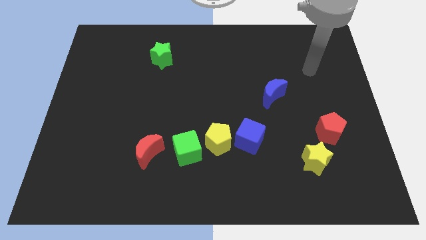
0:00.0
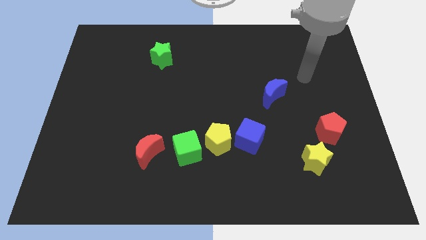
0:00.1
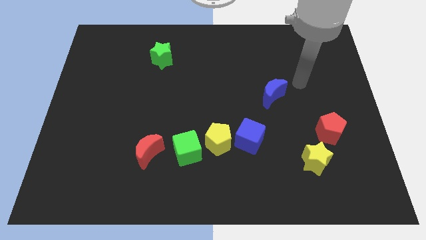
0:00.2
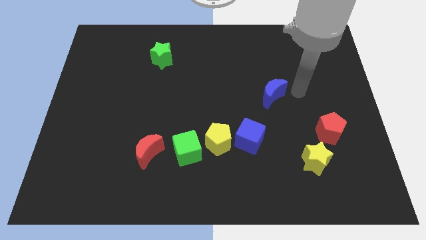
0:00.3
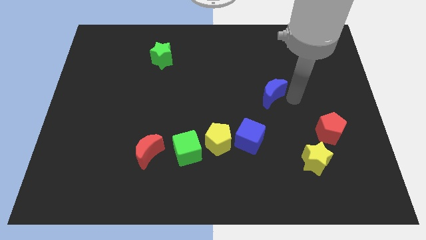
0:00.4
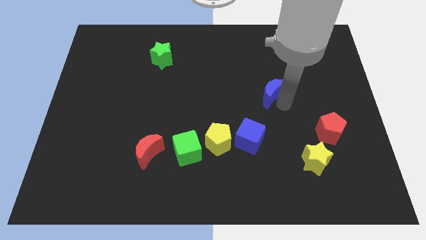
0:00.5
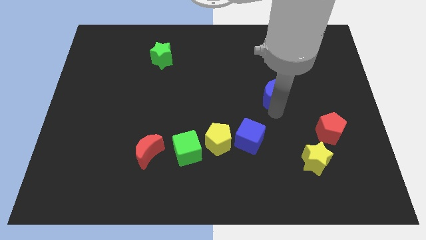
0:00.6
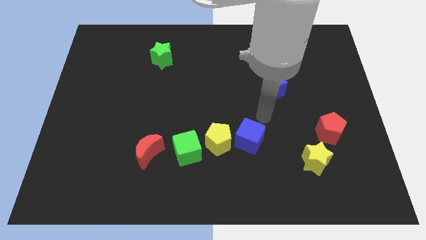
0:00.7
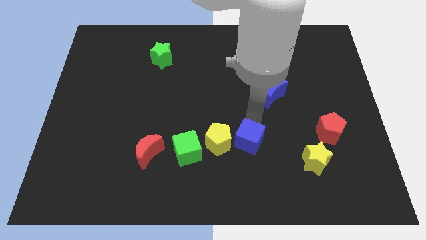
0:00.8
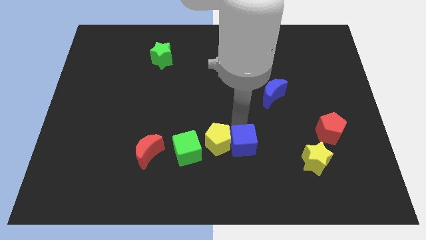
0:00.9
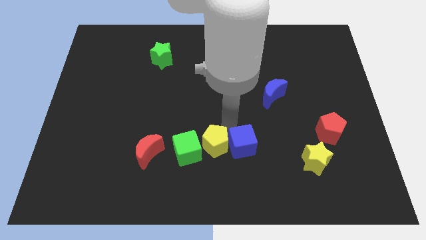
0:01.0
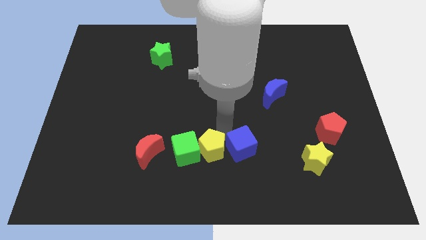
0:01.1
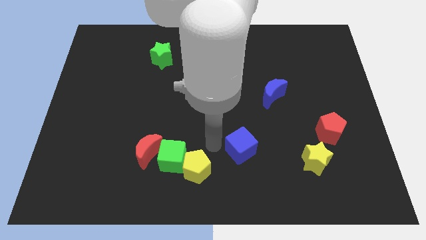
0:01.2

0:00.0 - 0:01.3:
separate the blue cube from the yellow pentagon

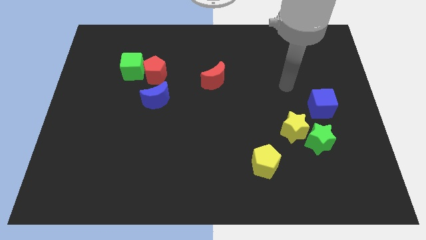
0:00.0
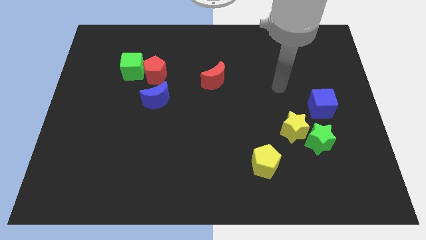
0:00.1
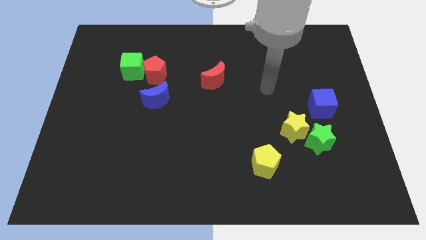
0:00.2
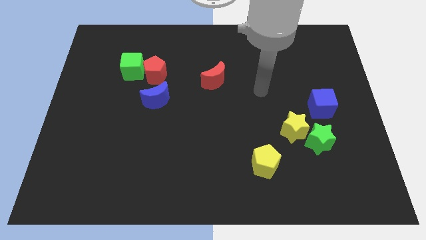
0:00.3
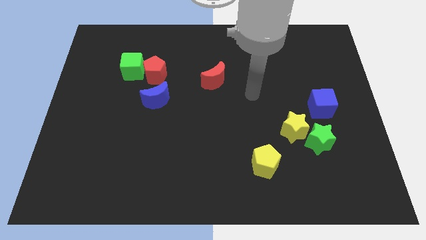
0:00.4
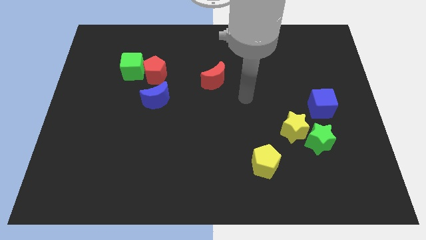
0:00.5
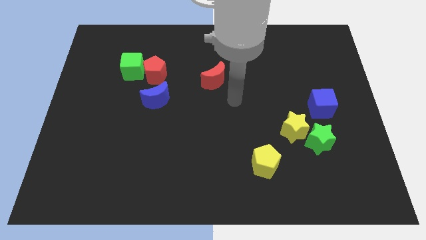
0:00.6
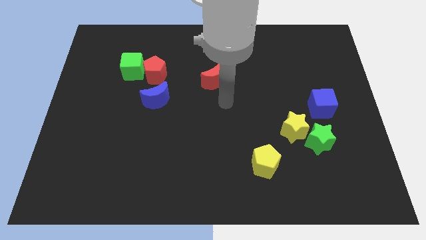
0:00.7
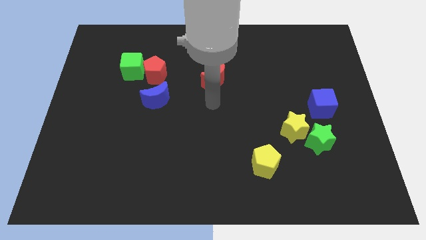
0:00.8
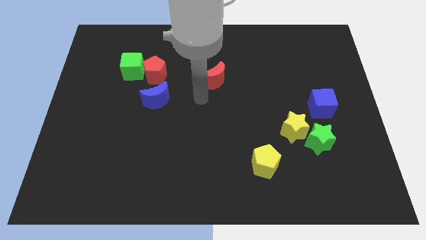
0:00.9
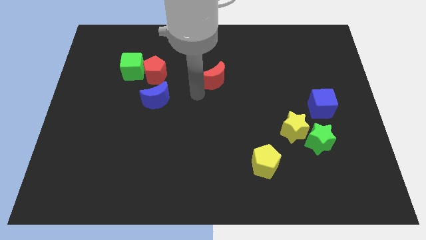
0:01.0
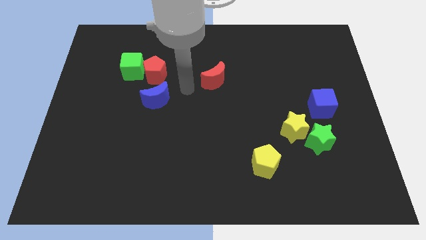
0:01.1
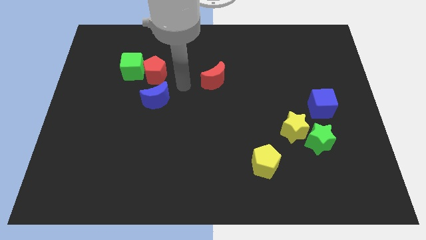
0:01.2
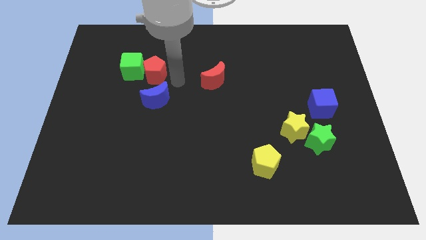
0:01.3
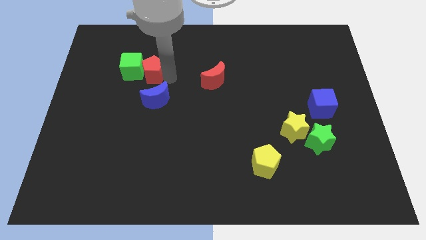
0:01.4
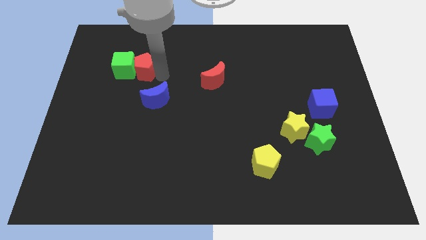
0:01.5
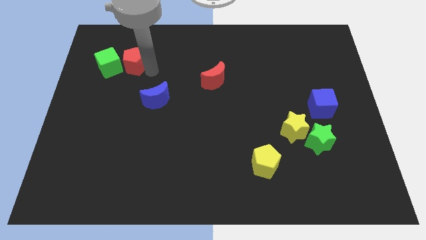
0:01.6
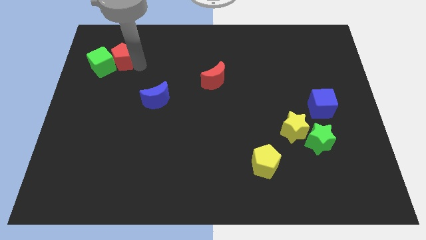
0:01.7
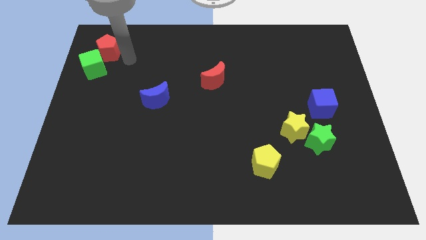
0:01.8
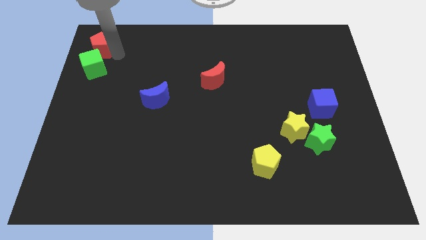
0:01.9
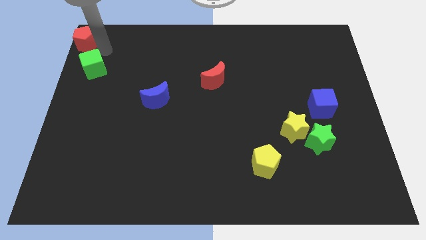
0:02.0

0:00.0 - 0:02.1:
separate the green cube from the red pentagon

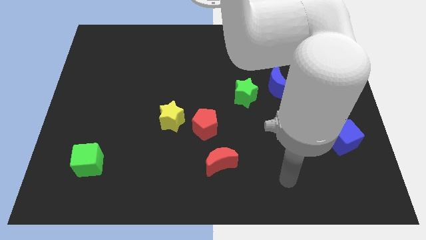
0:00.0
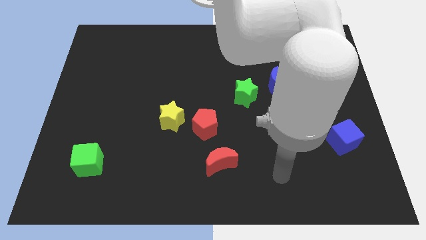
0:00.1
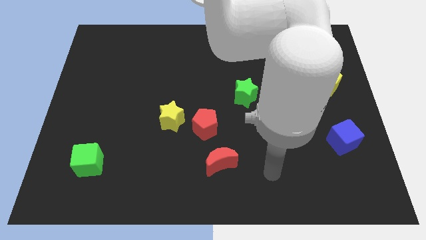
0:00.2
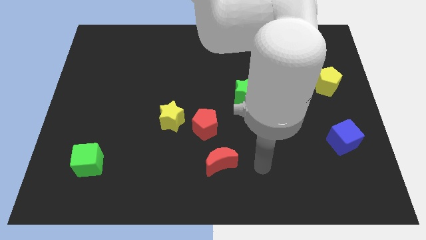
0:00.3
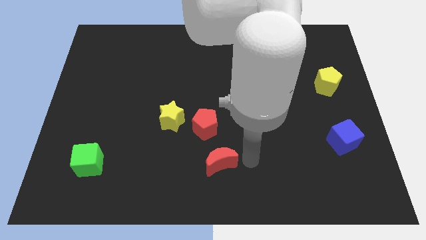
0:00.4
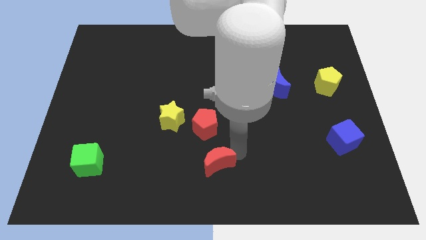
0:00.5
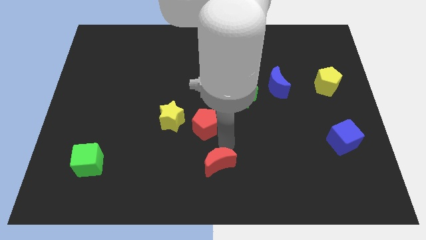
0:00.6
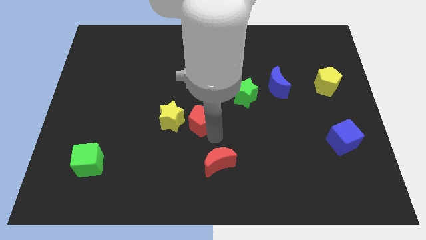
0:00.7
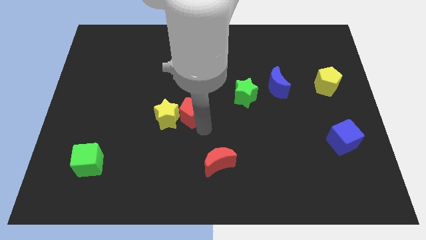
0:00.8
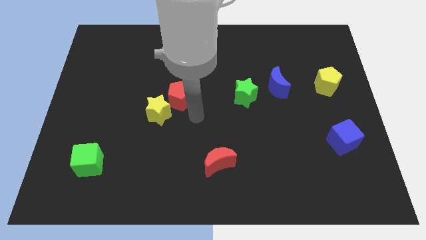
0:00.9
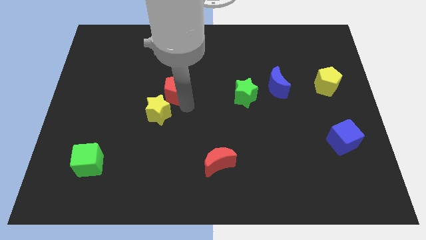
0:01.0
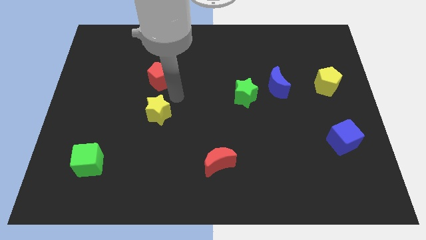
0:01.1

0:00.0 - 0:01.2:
separate the yellow star from the red pentagon

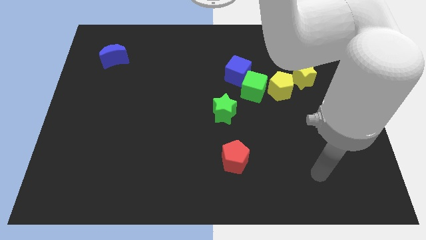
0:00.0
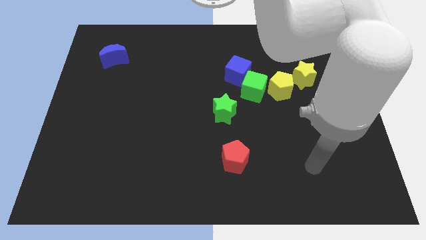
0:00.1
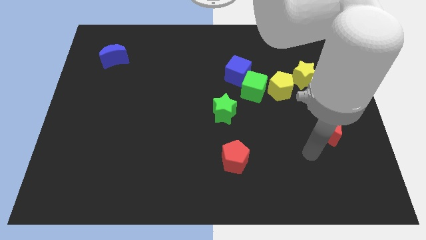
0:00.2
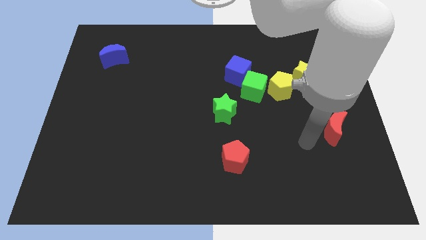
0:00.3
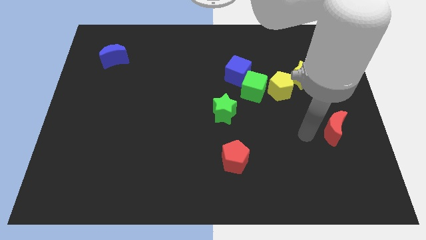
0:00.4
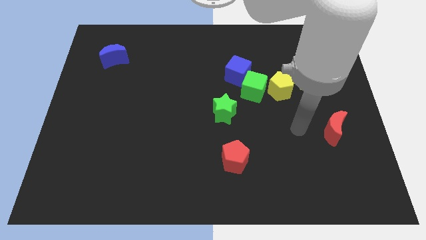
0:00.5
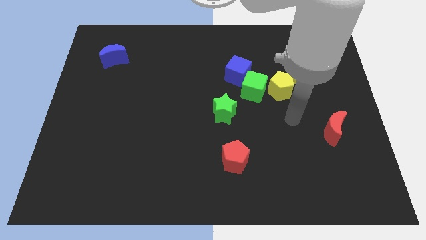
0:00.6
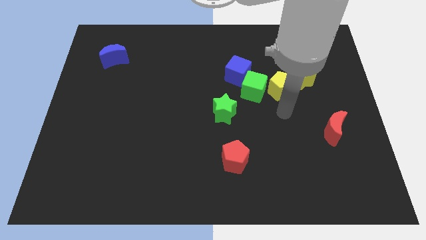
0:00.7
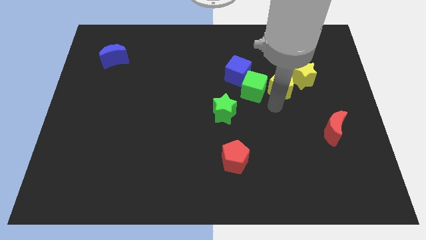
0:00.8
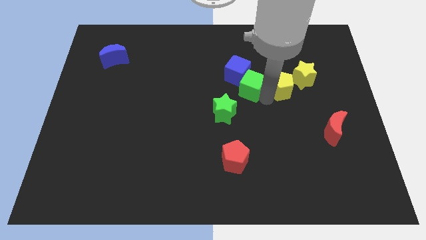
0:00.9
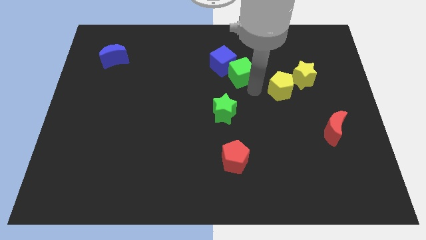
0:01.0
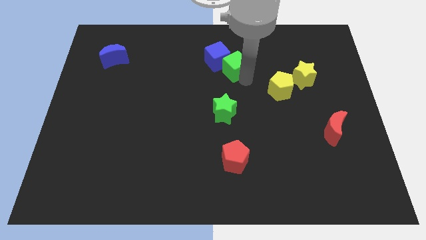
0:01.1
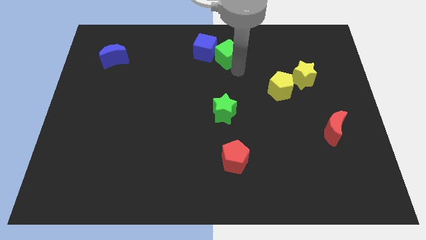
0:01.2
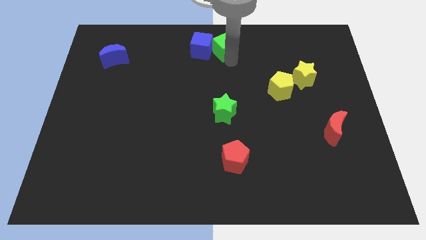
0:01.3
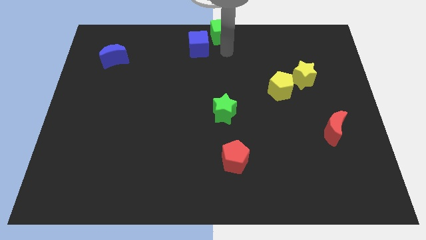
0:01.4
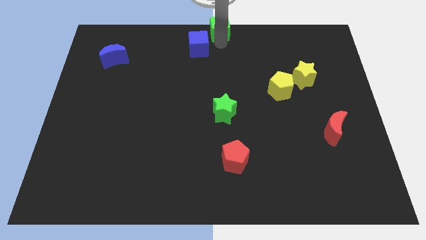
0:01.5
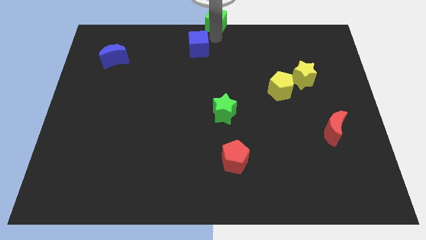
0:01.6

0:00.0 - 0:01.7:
separate the blue cube from the green cube

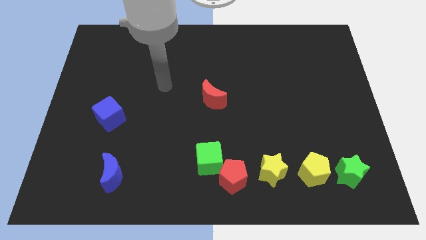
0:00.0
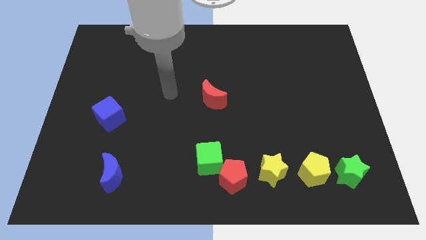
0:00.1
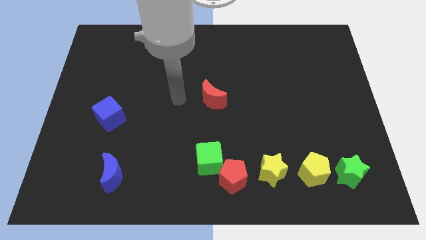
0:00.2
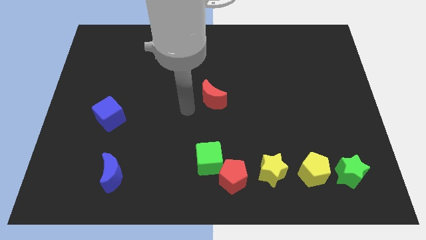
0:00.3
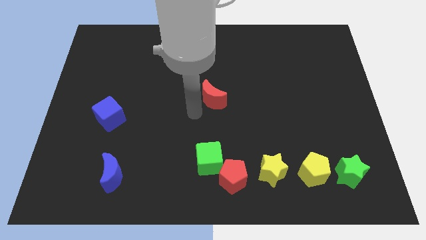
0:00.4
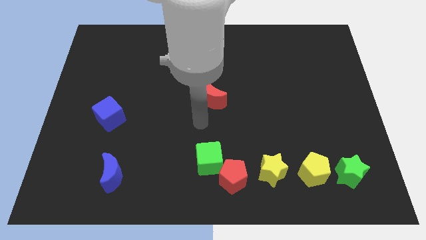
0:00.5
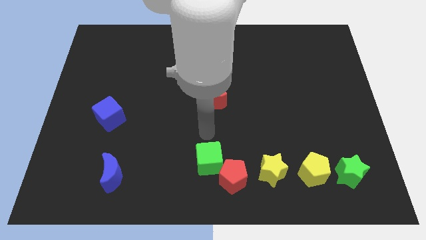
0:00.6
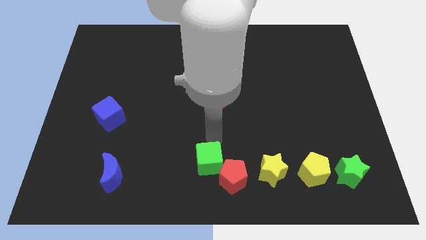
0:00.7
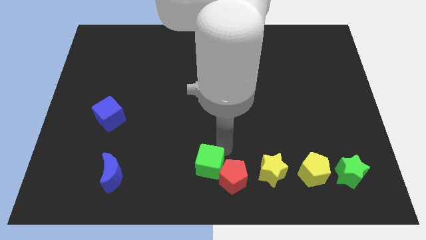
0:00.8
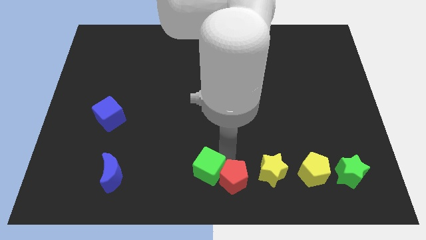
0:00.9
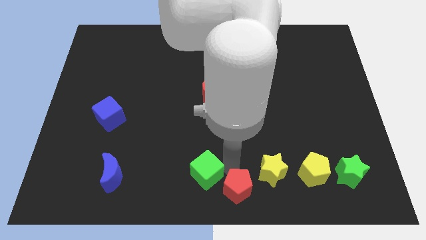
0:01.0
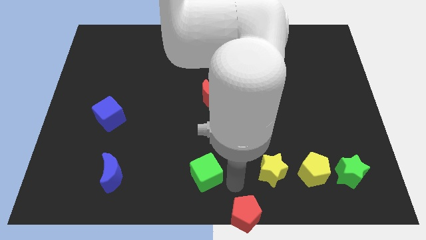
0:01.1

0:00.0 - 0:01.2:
pull the green cube apart from the red pentagon

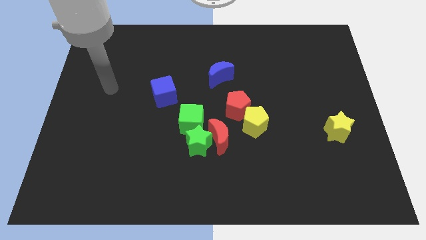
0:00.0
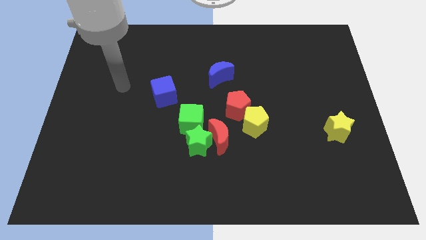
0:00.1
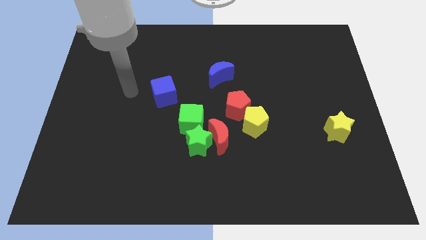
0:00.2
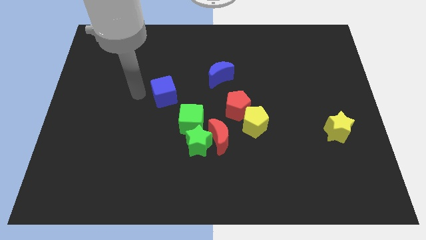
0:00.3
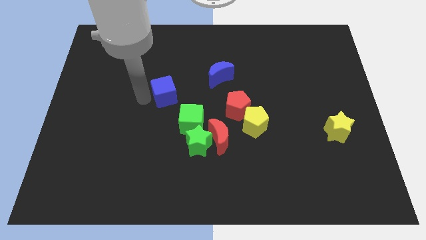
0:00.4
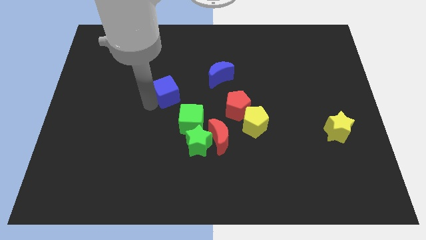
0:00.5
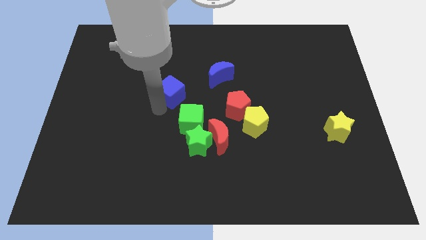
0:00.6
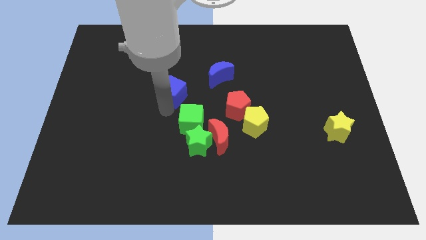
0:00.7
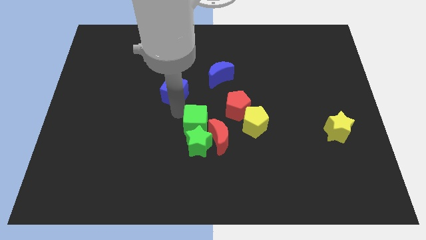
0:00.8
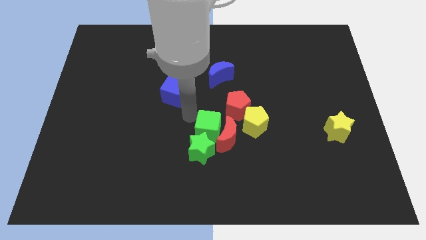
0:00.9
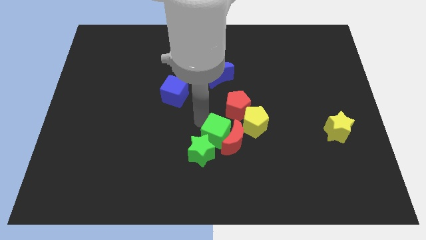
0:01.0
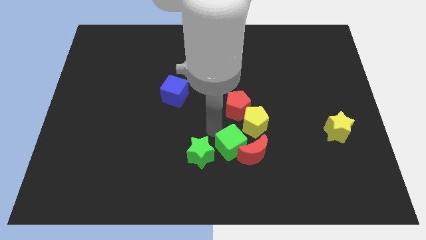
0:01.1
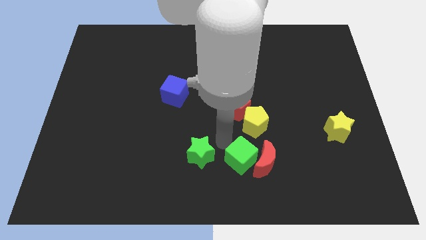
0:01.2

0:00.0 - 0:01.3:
pull the green star apart from the red moon and green cube

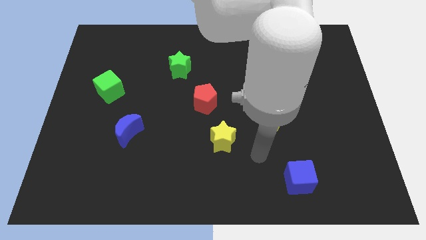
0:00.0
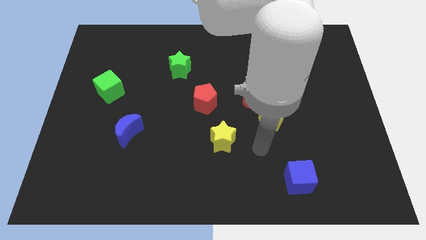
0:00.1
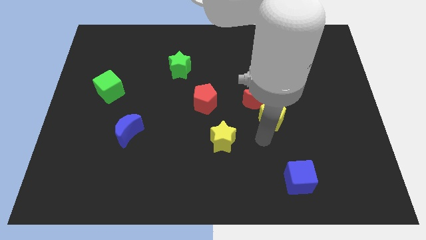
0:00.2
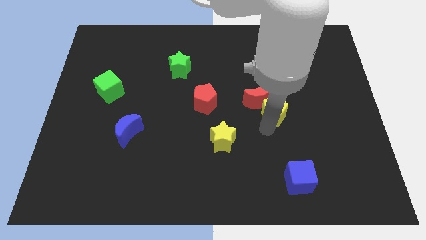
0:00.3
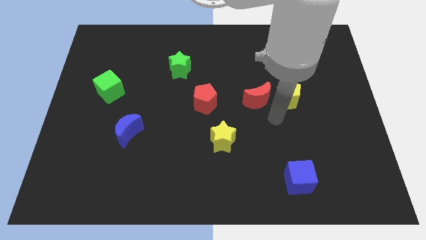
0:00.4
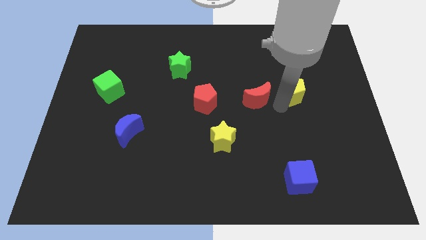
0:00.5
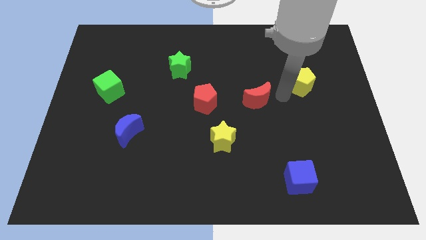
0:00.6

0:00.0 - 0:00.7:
move the red moon away from the yellow pentagon
